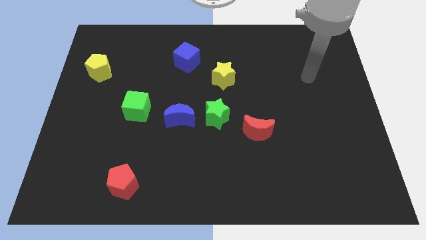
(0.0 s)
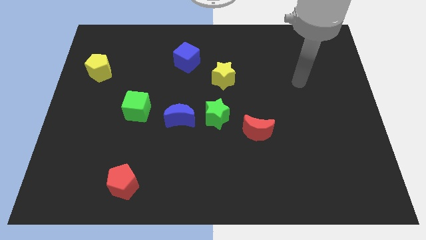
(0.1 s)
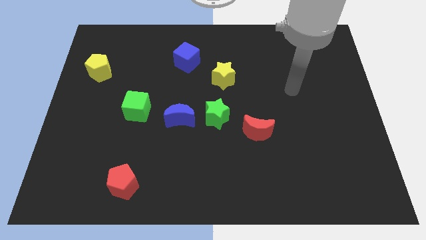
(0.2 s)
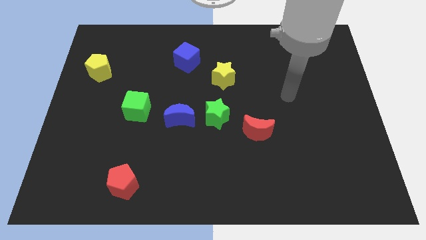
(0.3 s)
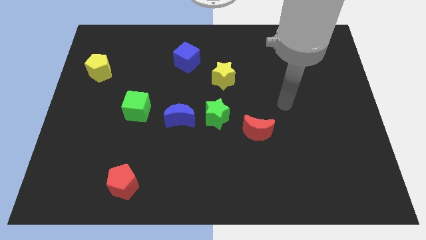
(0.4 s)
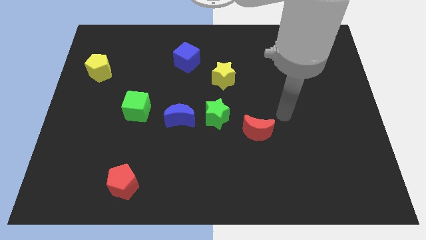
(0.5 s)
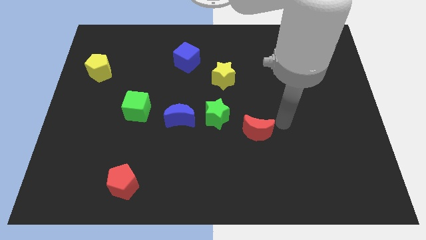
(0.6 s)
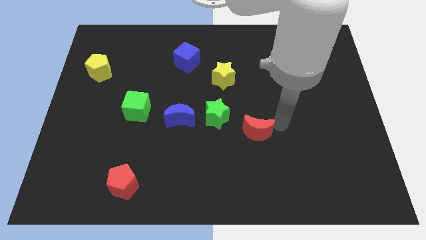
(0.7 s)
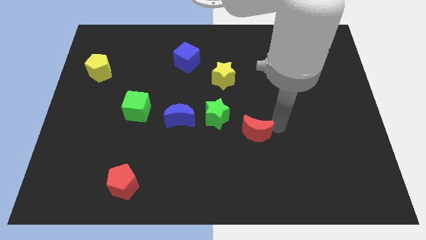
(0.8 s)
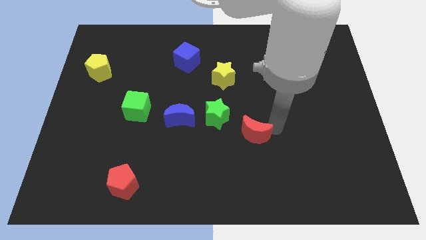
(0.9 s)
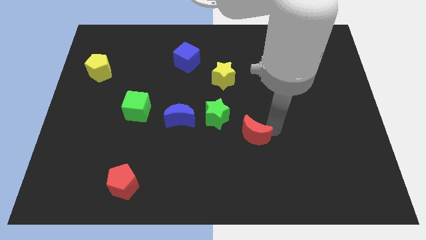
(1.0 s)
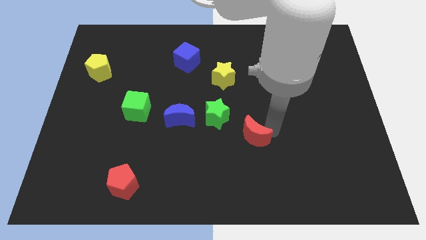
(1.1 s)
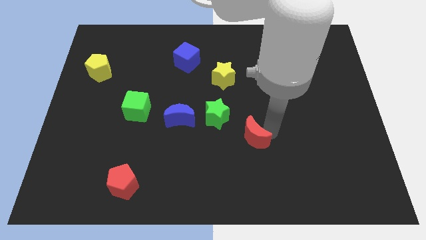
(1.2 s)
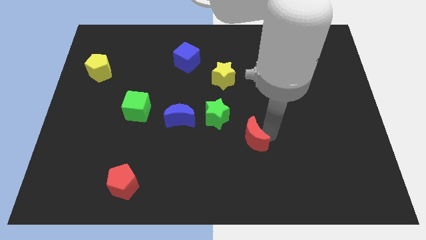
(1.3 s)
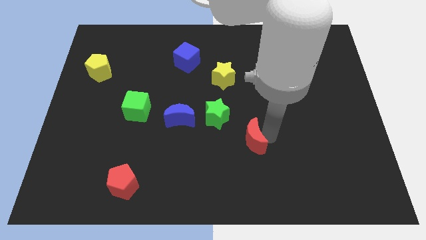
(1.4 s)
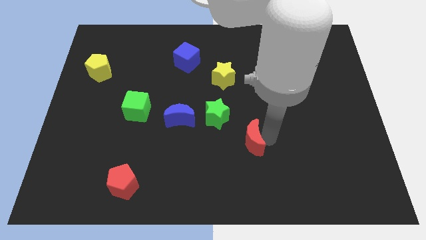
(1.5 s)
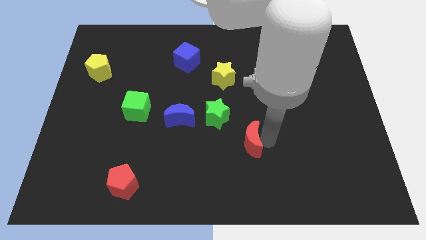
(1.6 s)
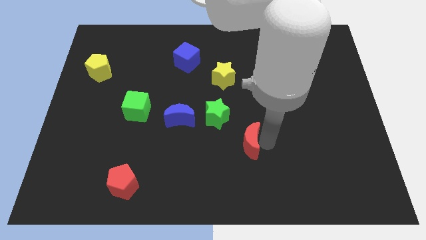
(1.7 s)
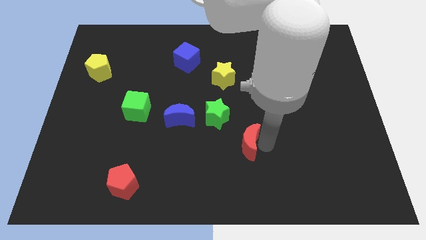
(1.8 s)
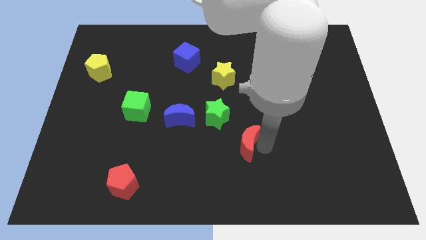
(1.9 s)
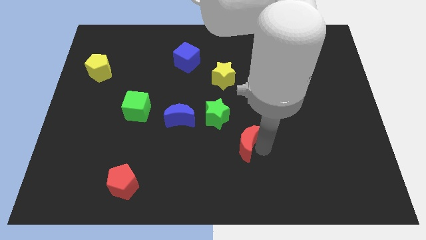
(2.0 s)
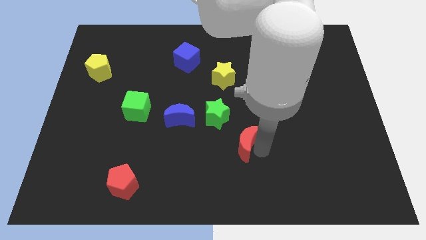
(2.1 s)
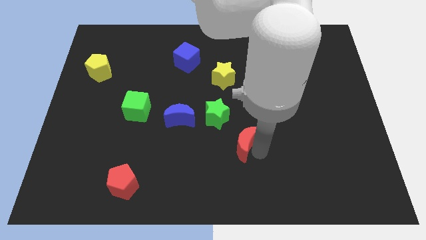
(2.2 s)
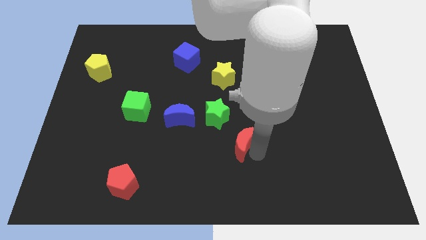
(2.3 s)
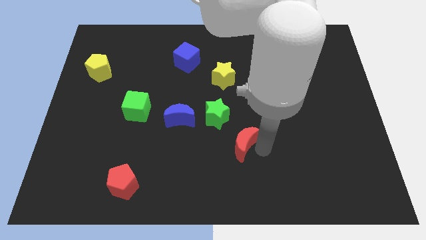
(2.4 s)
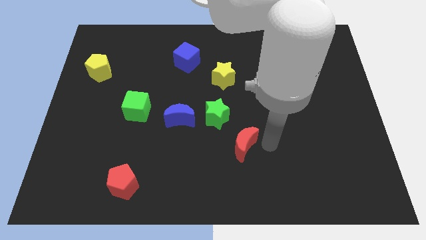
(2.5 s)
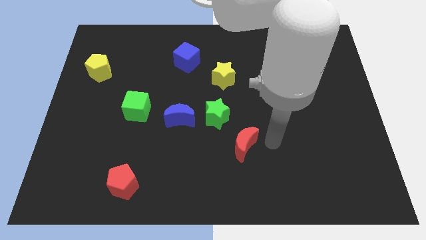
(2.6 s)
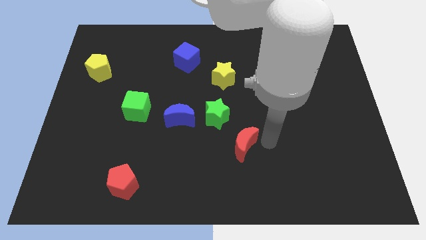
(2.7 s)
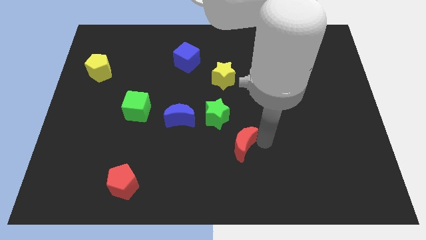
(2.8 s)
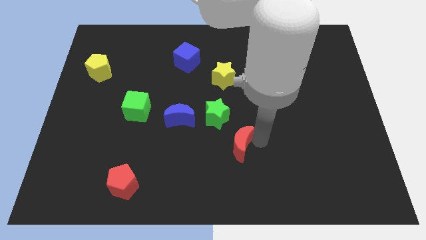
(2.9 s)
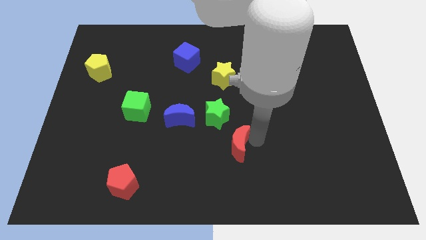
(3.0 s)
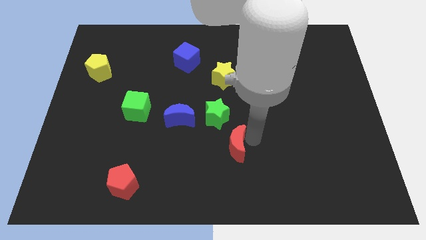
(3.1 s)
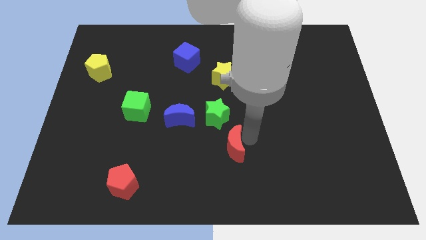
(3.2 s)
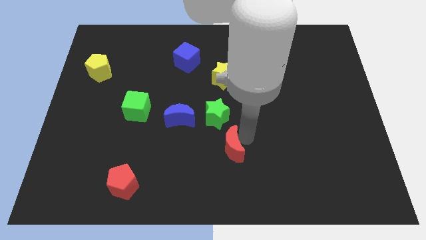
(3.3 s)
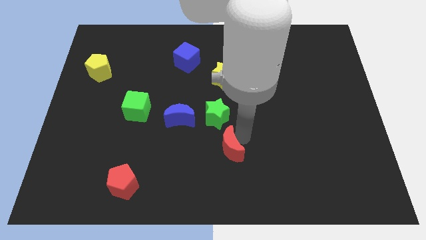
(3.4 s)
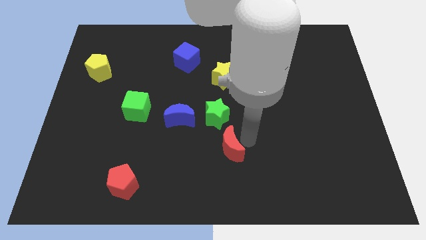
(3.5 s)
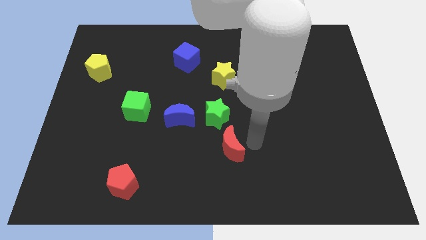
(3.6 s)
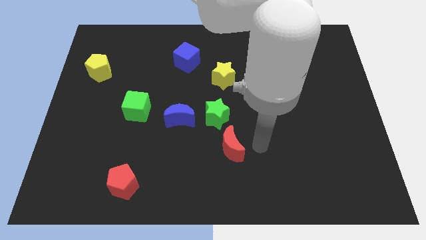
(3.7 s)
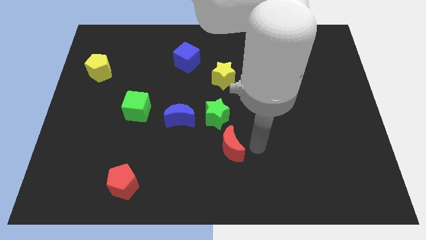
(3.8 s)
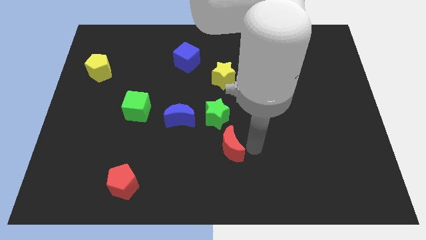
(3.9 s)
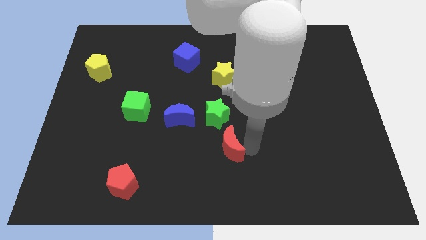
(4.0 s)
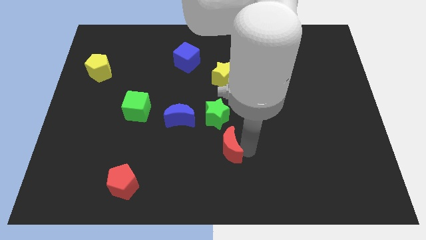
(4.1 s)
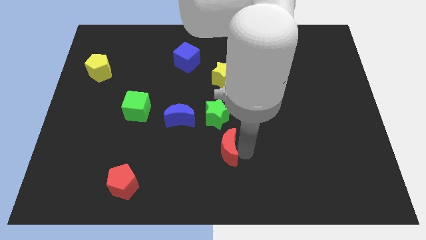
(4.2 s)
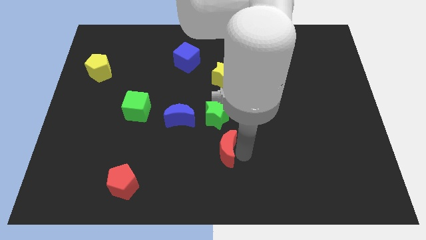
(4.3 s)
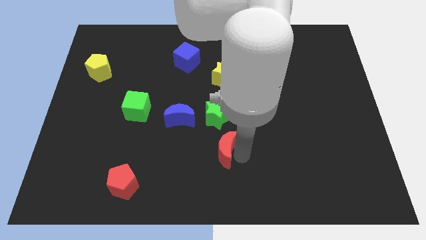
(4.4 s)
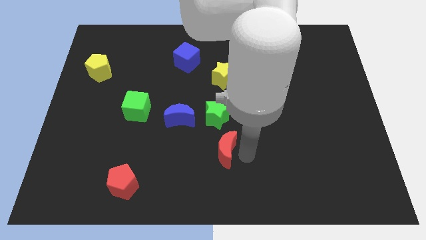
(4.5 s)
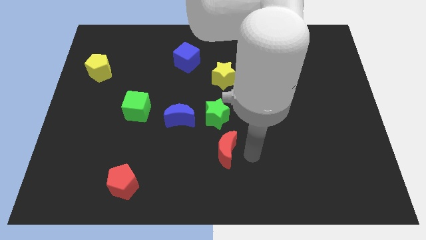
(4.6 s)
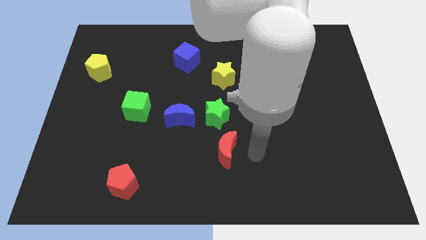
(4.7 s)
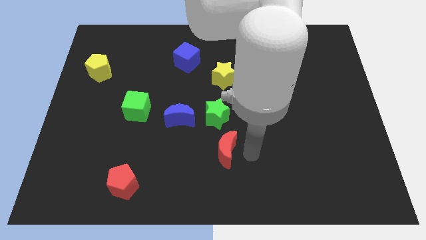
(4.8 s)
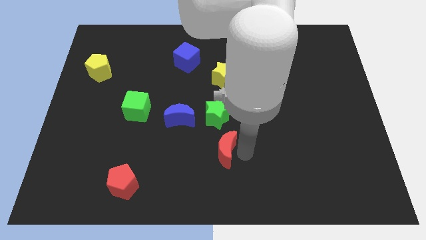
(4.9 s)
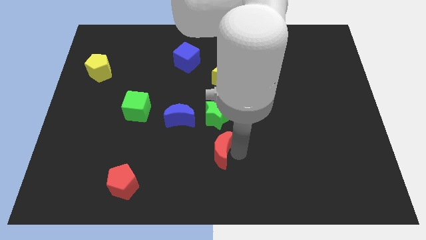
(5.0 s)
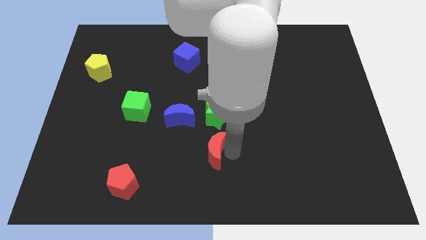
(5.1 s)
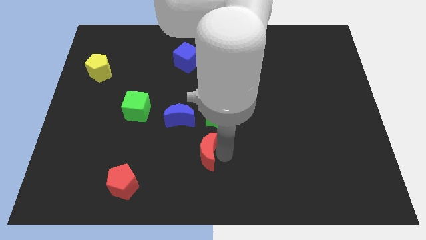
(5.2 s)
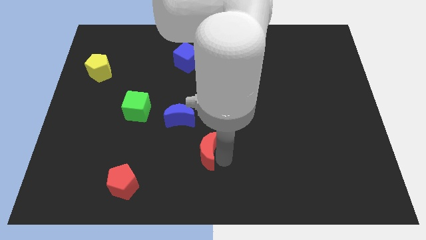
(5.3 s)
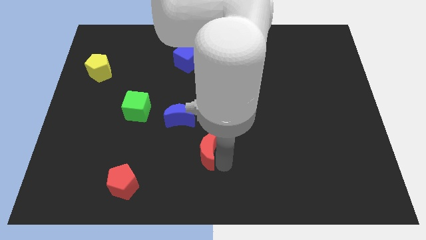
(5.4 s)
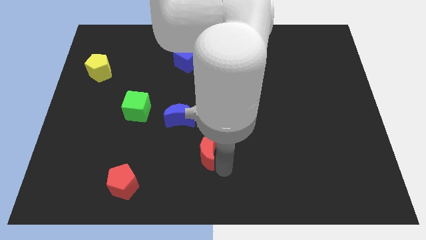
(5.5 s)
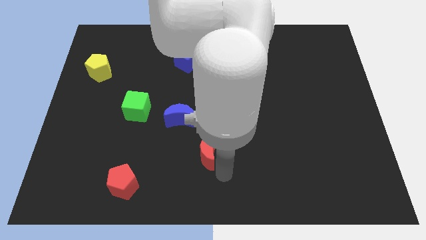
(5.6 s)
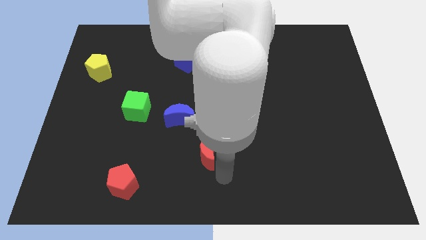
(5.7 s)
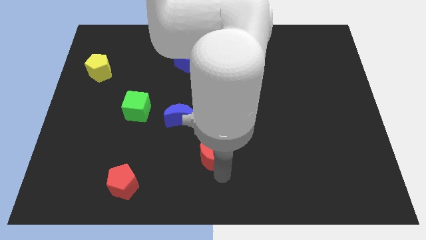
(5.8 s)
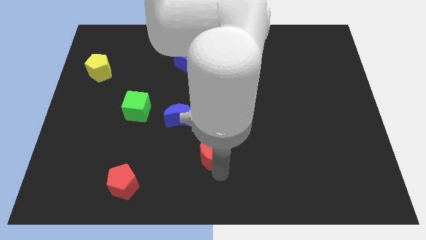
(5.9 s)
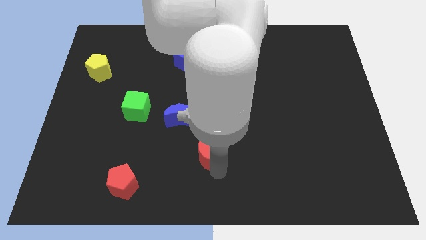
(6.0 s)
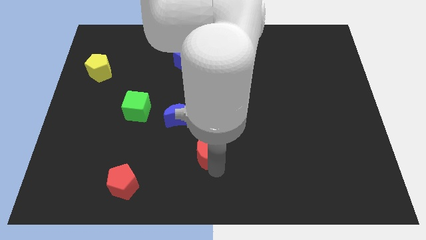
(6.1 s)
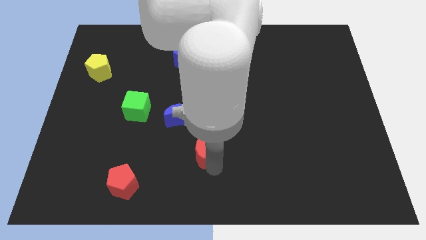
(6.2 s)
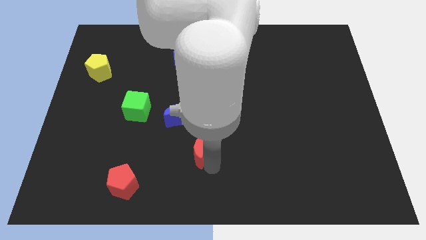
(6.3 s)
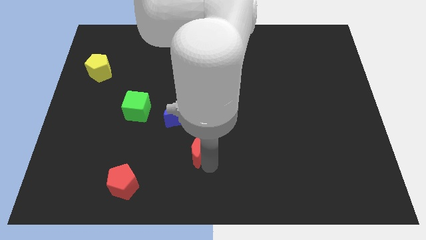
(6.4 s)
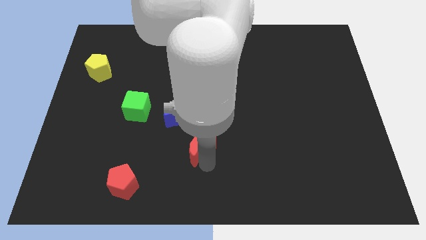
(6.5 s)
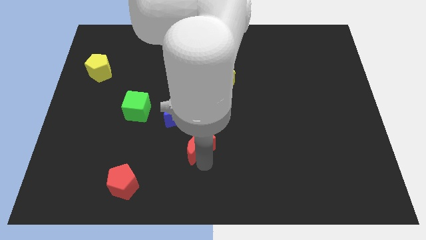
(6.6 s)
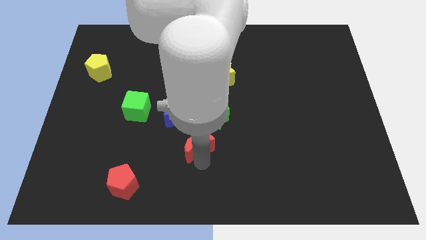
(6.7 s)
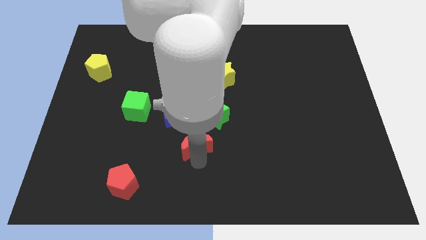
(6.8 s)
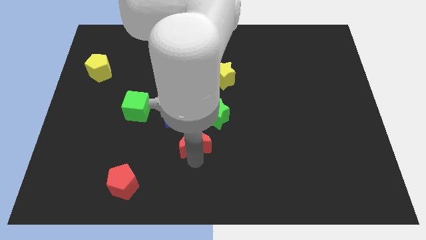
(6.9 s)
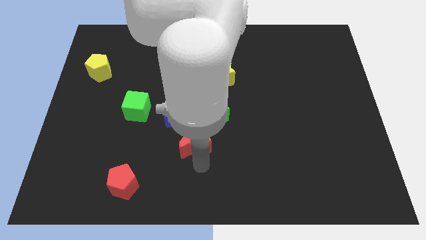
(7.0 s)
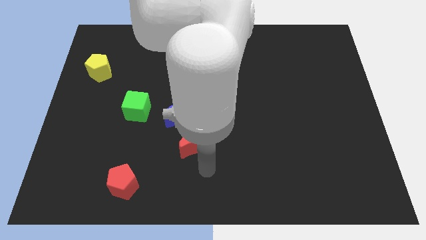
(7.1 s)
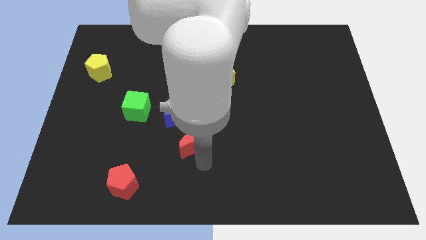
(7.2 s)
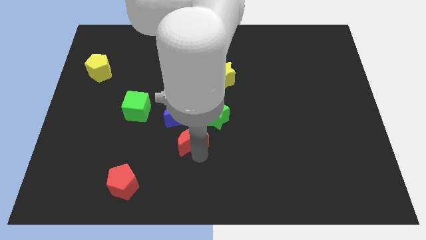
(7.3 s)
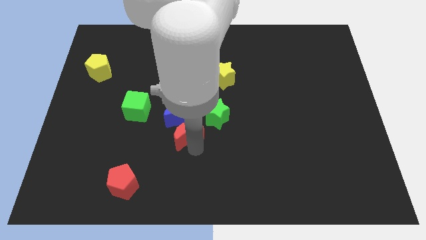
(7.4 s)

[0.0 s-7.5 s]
move the red moon close to the blue moon
